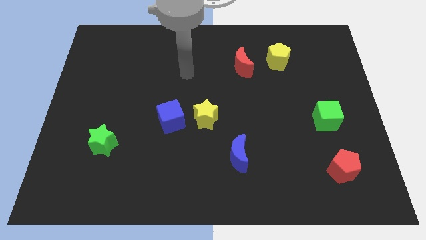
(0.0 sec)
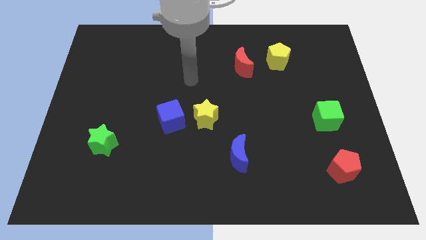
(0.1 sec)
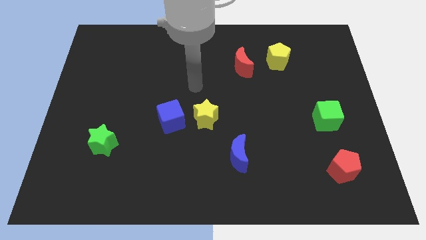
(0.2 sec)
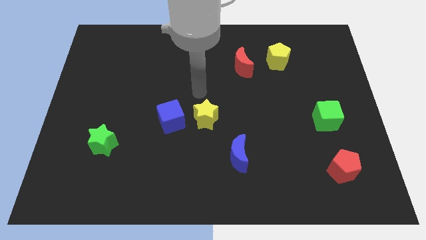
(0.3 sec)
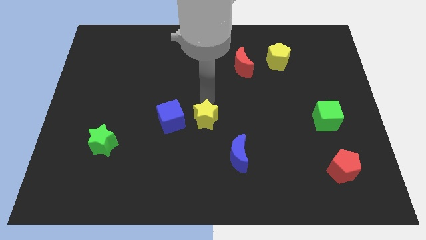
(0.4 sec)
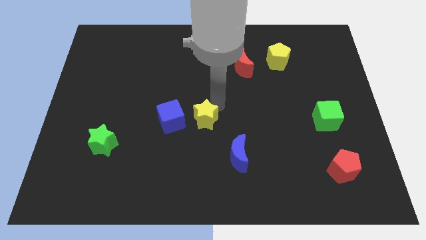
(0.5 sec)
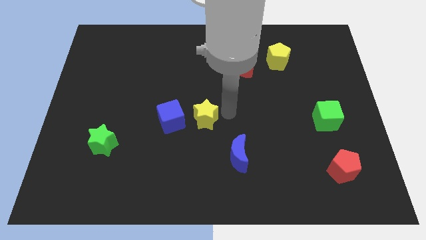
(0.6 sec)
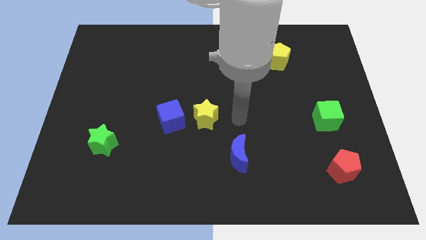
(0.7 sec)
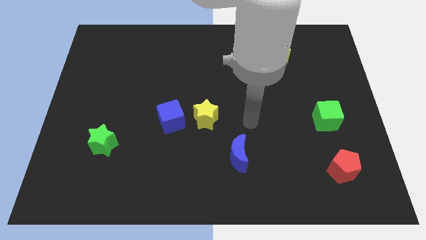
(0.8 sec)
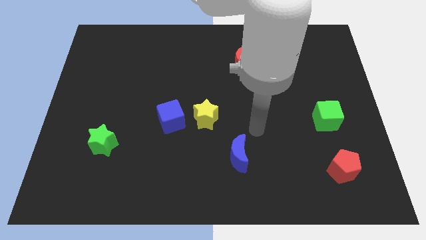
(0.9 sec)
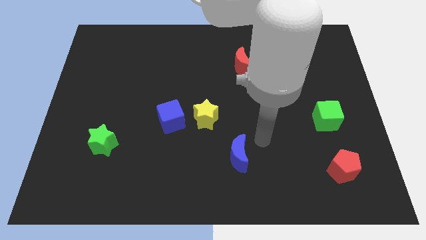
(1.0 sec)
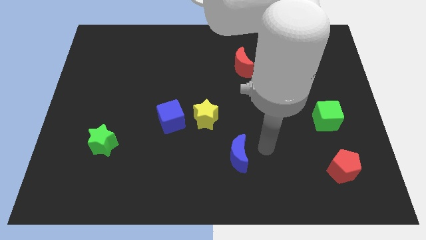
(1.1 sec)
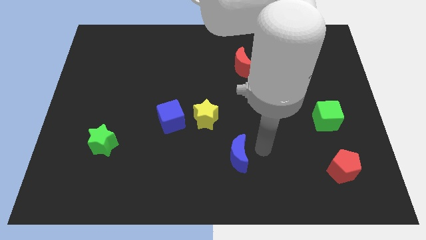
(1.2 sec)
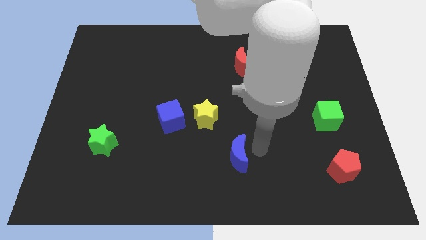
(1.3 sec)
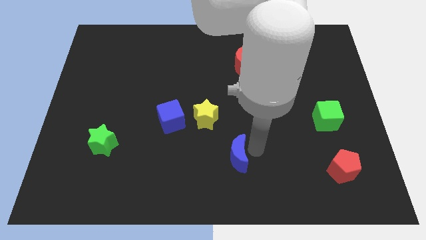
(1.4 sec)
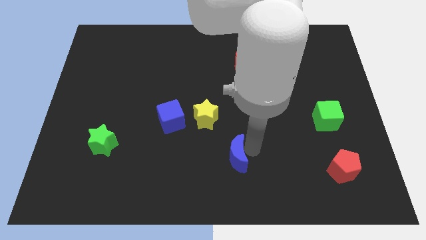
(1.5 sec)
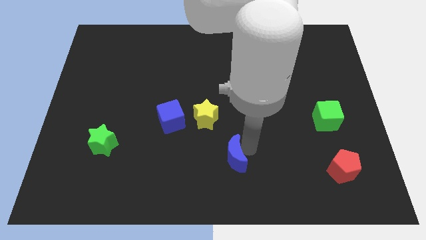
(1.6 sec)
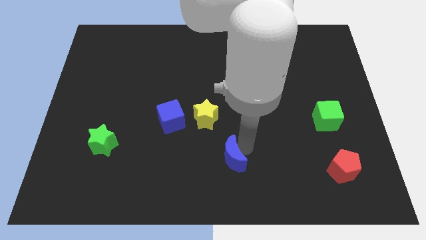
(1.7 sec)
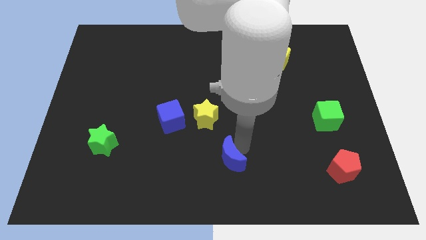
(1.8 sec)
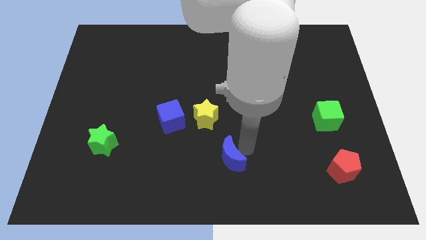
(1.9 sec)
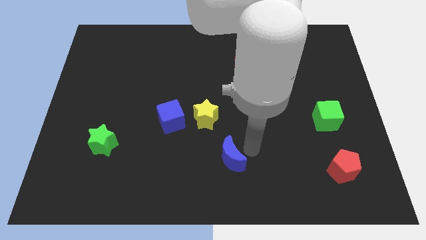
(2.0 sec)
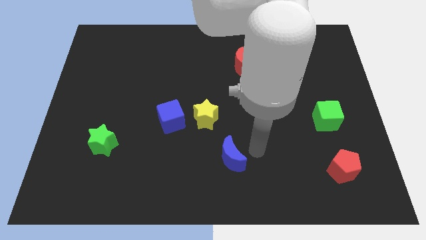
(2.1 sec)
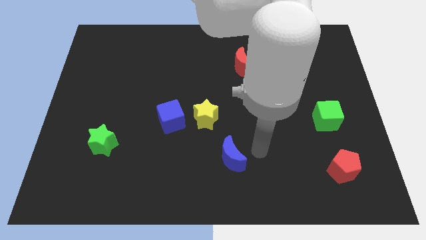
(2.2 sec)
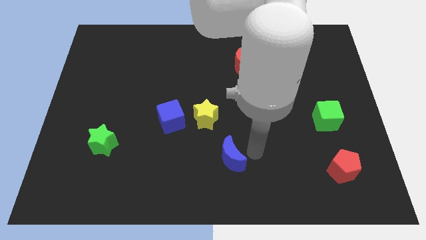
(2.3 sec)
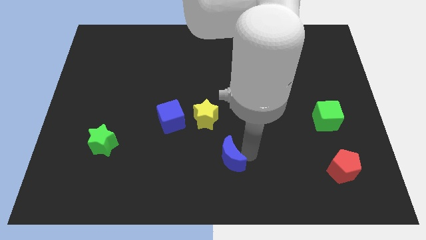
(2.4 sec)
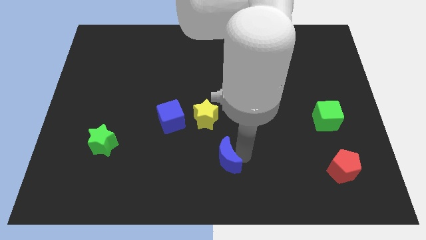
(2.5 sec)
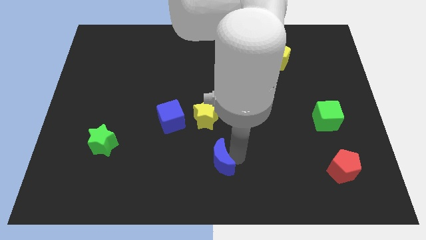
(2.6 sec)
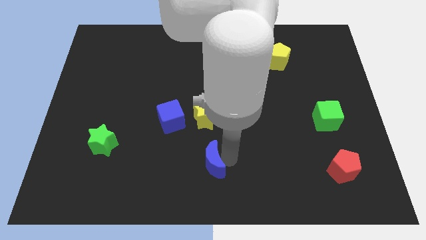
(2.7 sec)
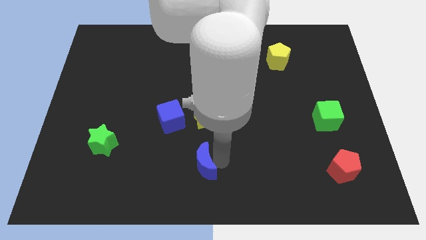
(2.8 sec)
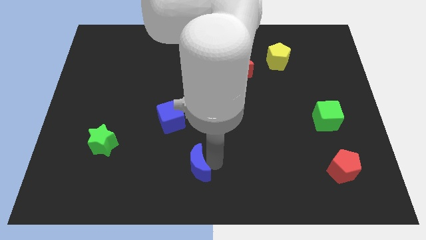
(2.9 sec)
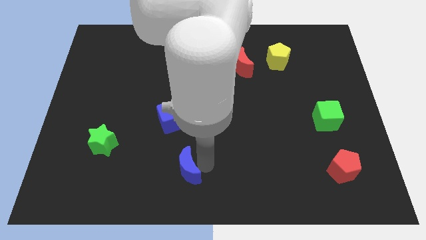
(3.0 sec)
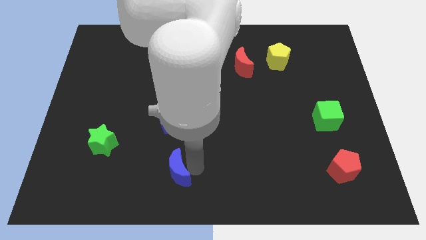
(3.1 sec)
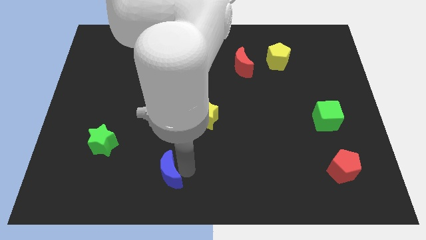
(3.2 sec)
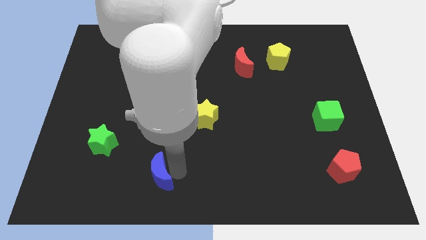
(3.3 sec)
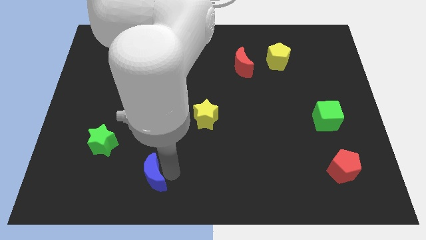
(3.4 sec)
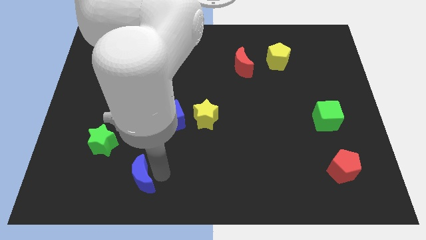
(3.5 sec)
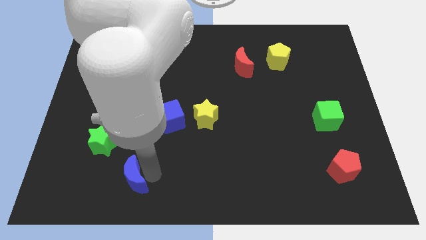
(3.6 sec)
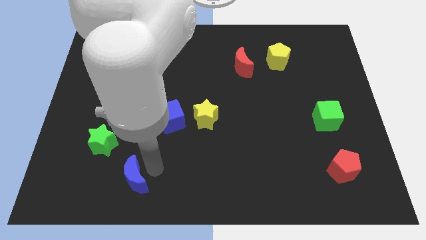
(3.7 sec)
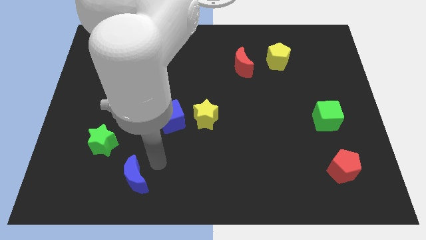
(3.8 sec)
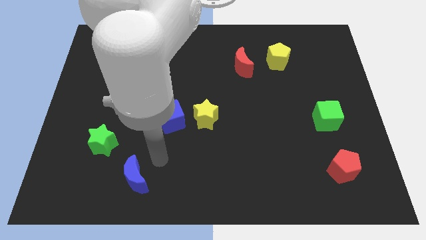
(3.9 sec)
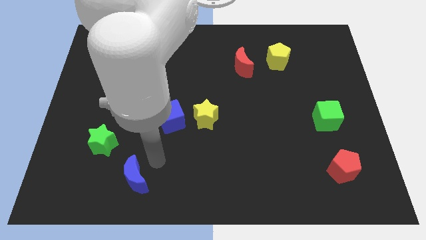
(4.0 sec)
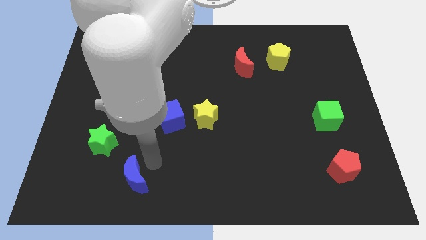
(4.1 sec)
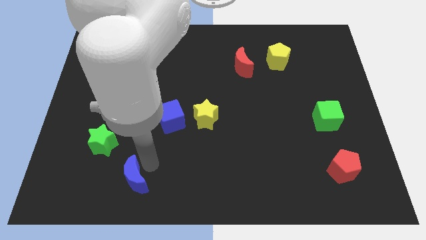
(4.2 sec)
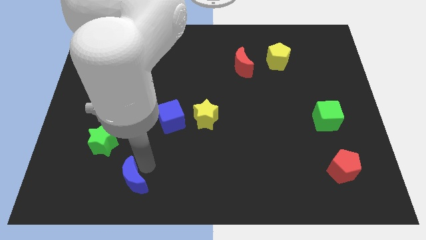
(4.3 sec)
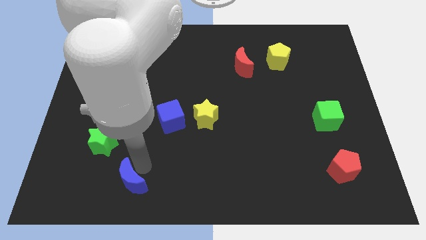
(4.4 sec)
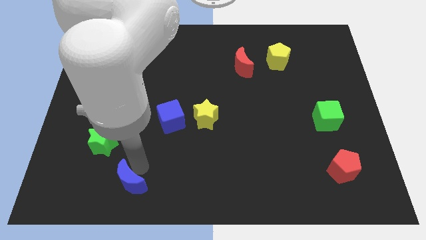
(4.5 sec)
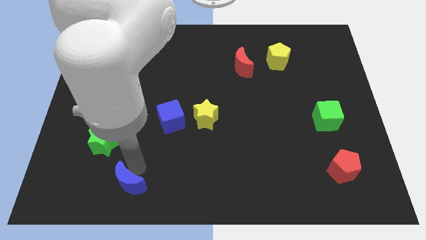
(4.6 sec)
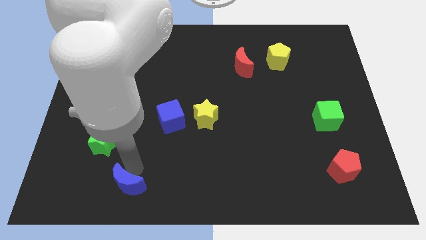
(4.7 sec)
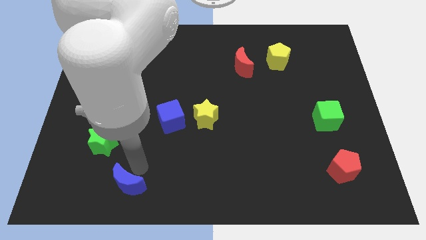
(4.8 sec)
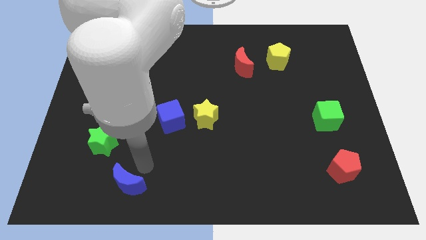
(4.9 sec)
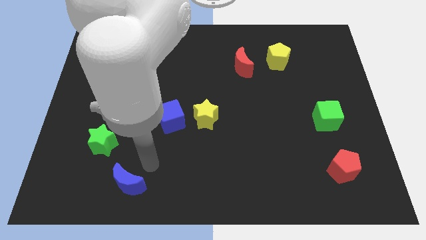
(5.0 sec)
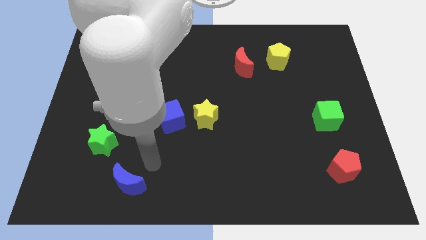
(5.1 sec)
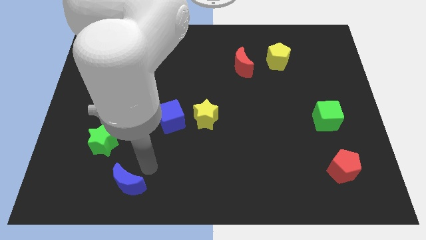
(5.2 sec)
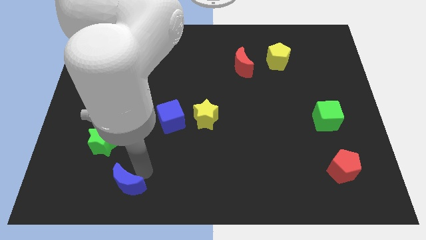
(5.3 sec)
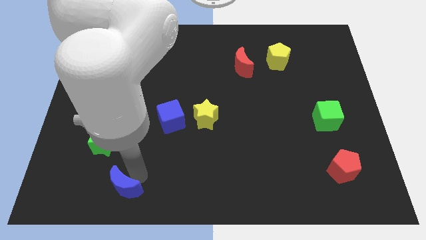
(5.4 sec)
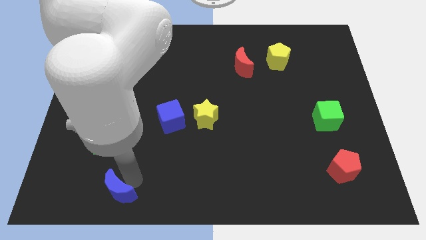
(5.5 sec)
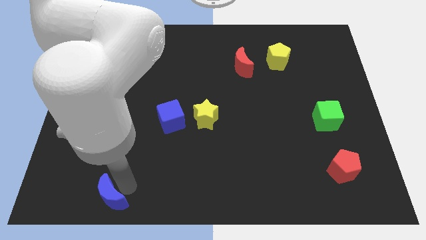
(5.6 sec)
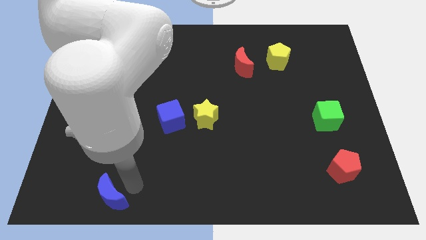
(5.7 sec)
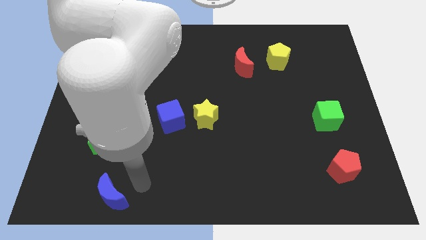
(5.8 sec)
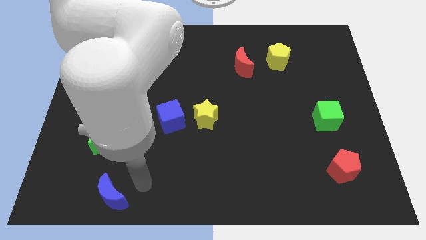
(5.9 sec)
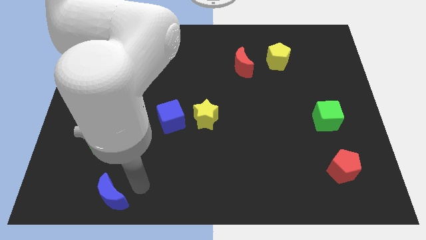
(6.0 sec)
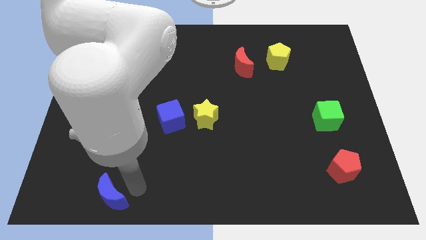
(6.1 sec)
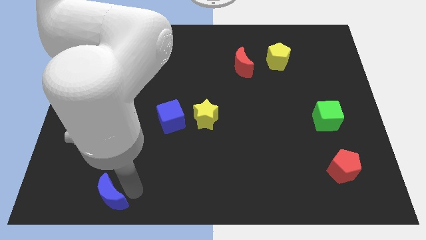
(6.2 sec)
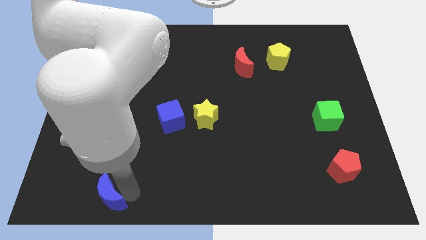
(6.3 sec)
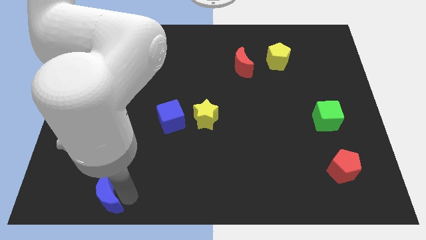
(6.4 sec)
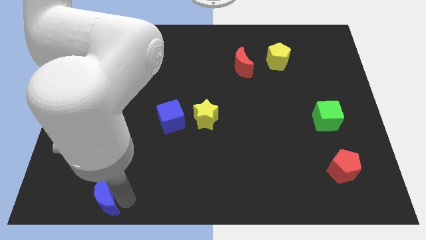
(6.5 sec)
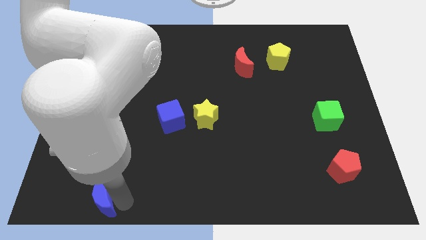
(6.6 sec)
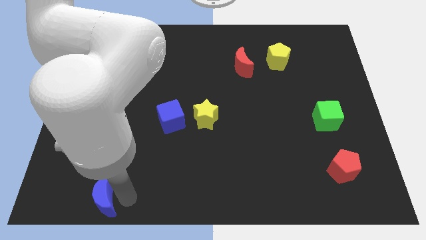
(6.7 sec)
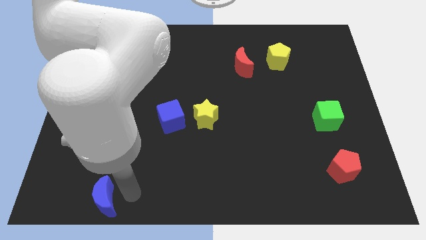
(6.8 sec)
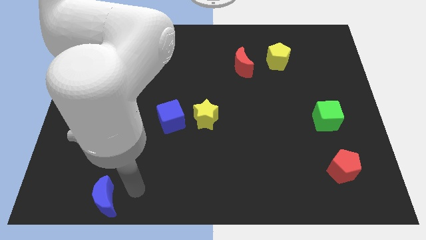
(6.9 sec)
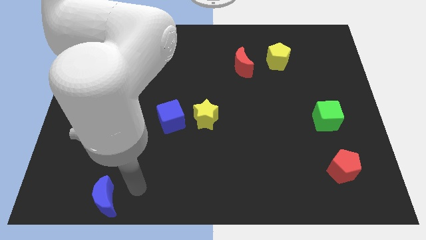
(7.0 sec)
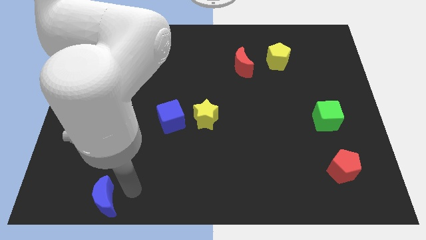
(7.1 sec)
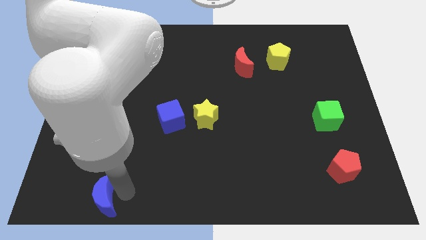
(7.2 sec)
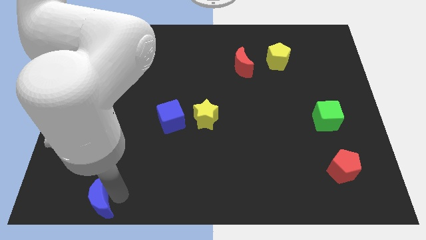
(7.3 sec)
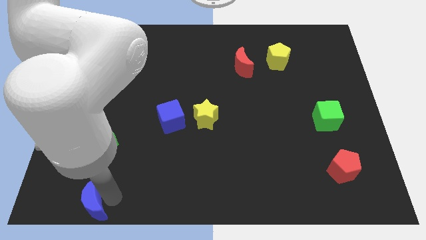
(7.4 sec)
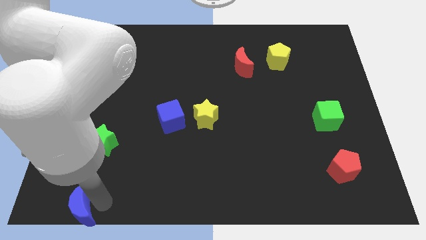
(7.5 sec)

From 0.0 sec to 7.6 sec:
put the blue moon to the bottom left
